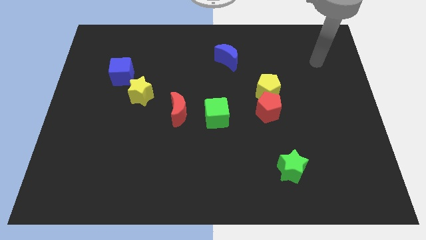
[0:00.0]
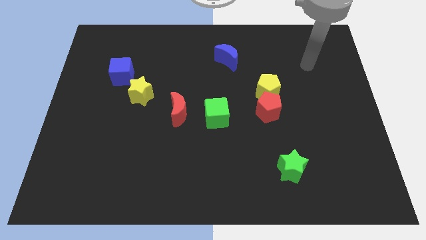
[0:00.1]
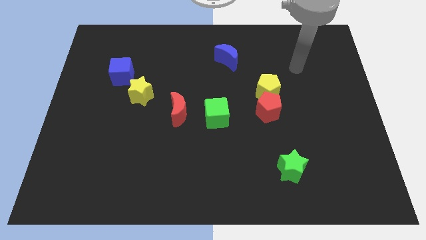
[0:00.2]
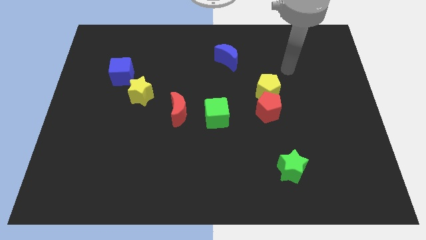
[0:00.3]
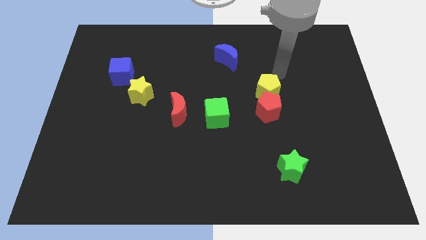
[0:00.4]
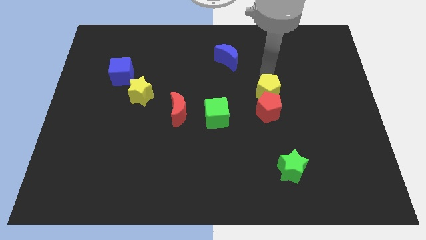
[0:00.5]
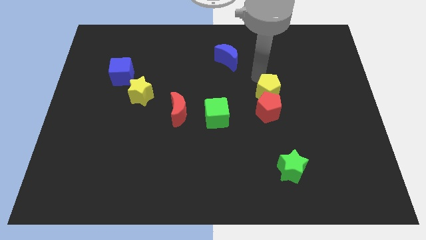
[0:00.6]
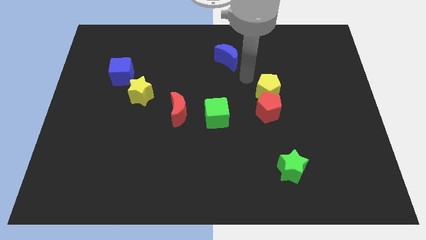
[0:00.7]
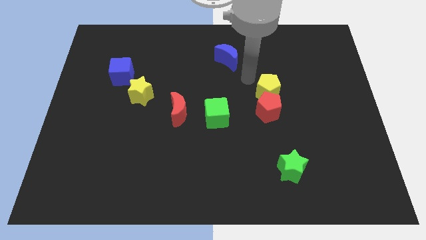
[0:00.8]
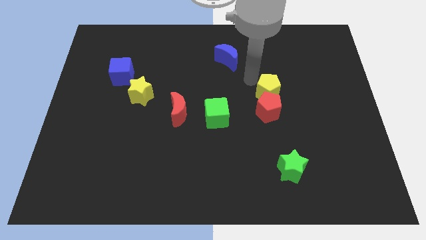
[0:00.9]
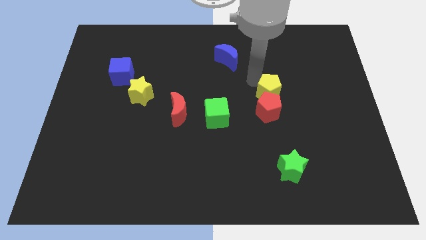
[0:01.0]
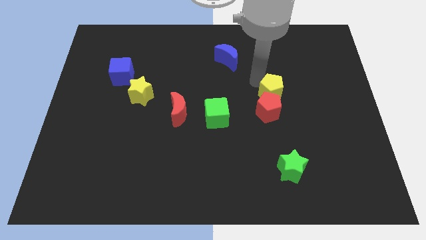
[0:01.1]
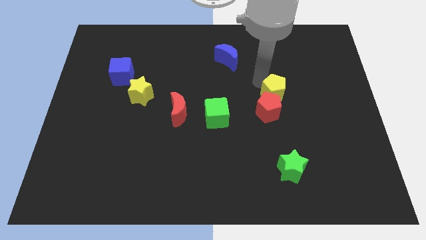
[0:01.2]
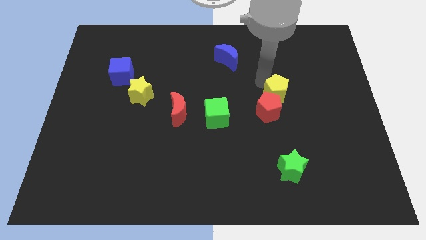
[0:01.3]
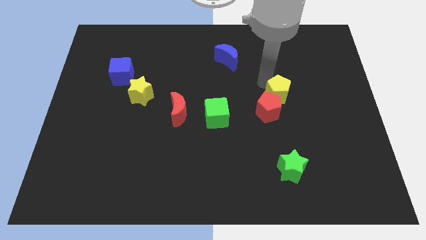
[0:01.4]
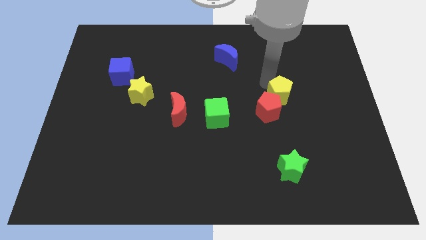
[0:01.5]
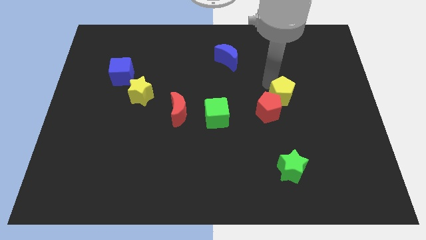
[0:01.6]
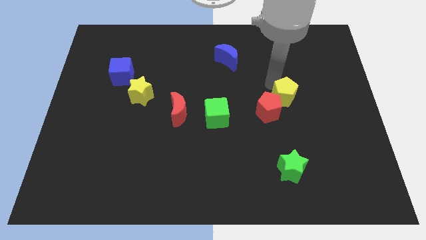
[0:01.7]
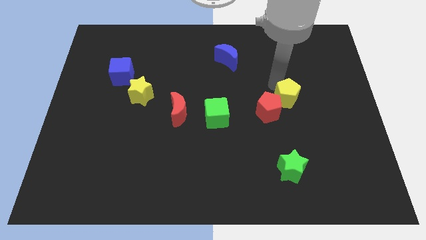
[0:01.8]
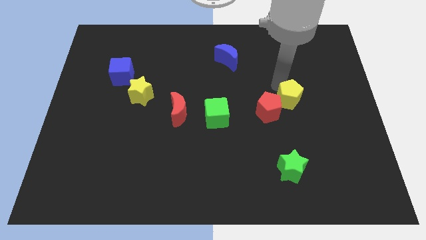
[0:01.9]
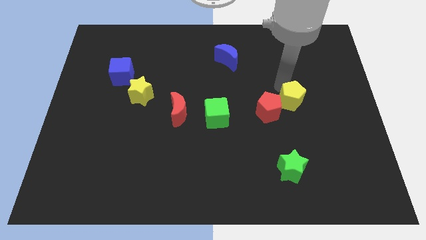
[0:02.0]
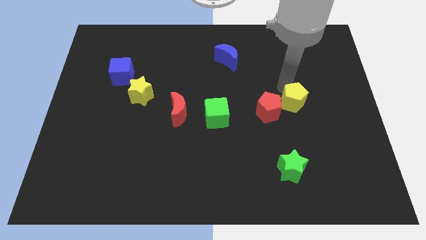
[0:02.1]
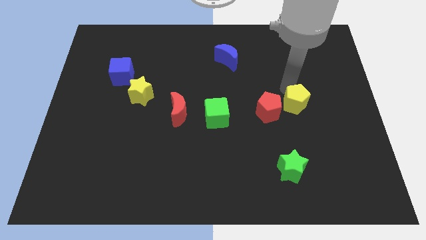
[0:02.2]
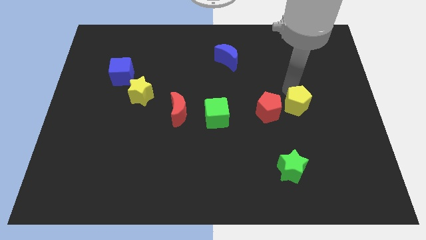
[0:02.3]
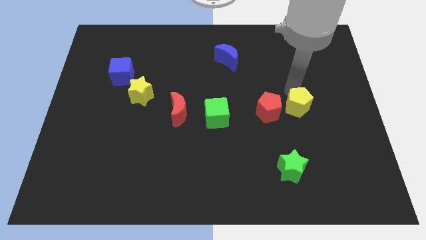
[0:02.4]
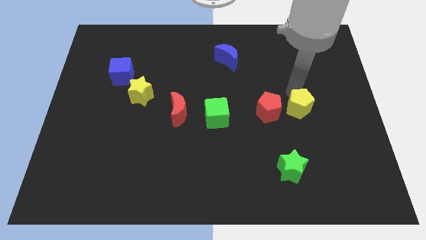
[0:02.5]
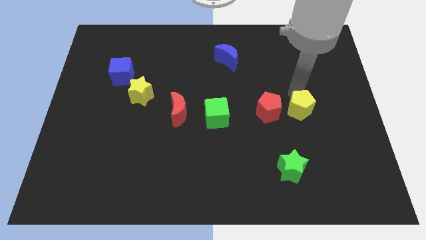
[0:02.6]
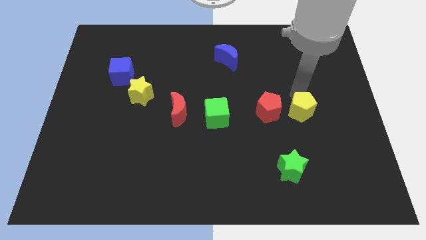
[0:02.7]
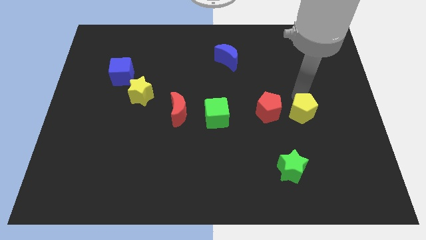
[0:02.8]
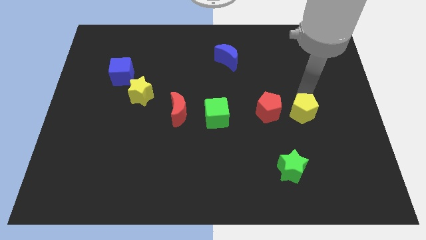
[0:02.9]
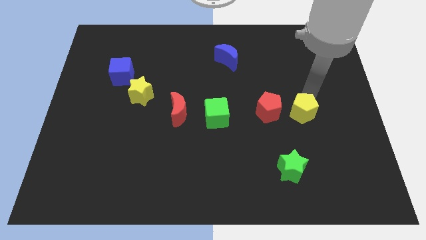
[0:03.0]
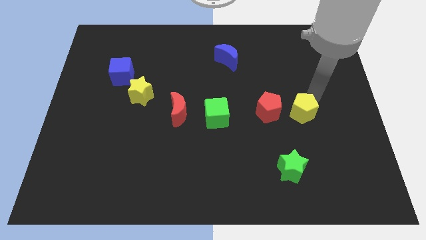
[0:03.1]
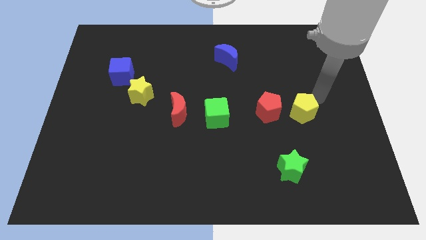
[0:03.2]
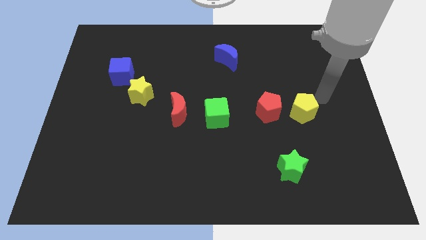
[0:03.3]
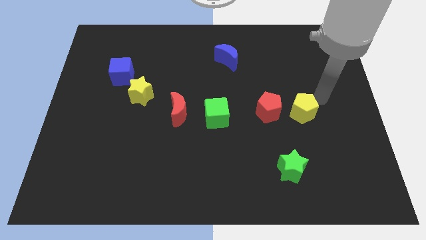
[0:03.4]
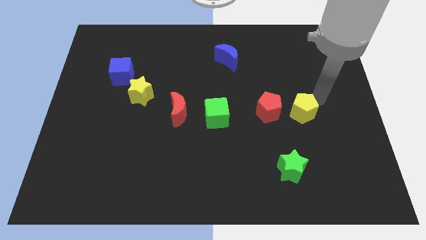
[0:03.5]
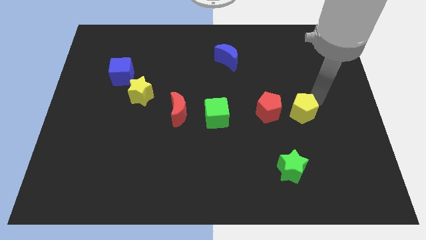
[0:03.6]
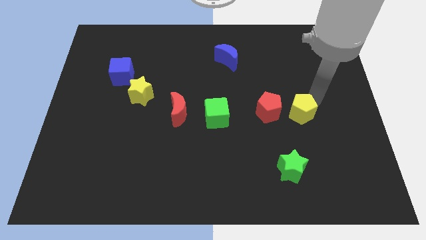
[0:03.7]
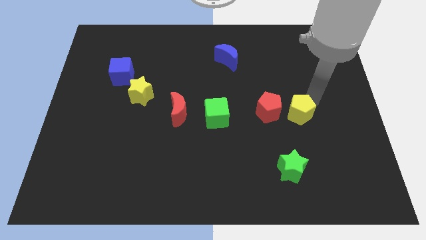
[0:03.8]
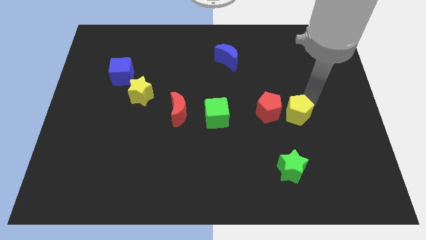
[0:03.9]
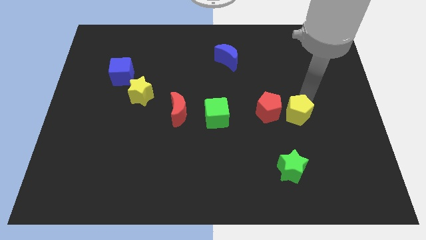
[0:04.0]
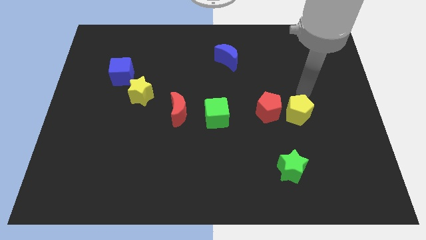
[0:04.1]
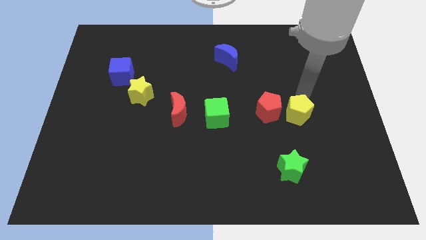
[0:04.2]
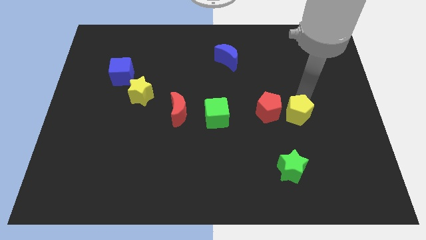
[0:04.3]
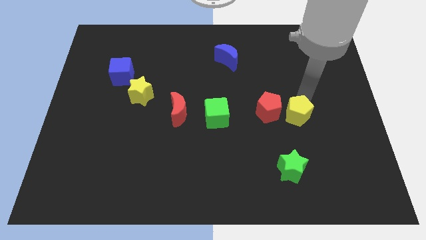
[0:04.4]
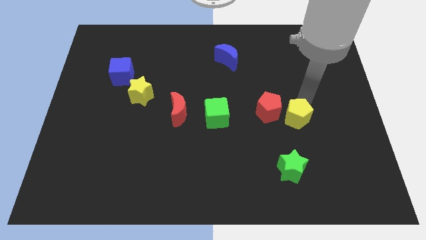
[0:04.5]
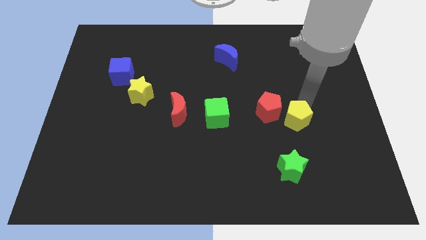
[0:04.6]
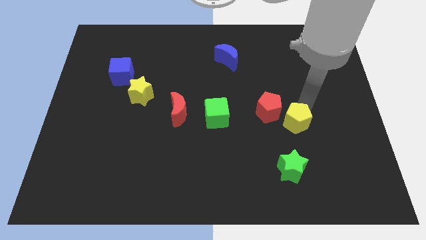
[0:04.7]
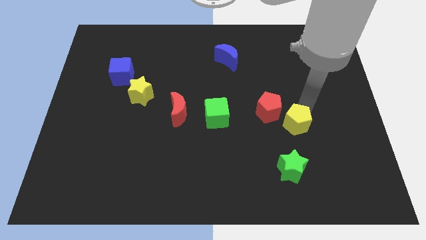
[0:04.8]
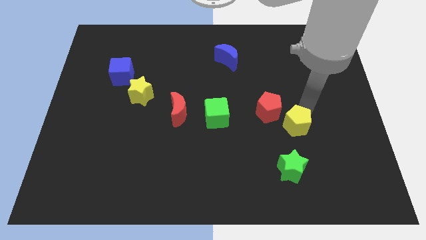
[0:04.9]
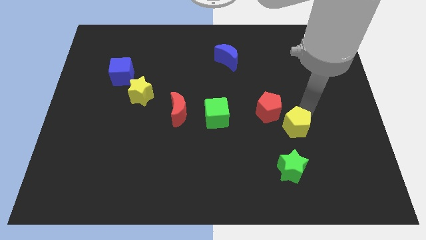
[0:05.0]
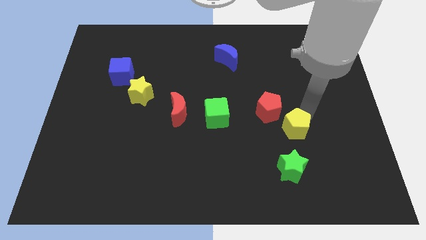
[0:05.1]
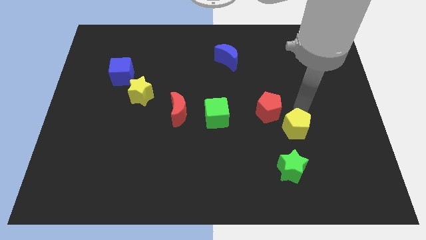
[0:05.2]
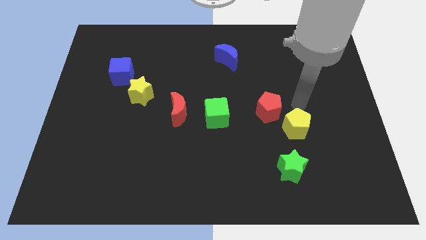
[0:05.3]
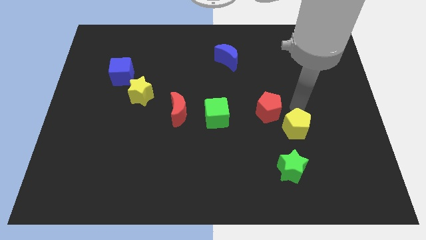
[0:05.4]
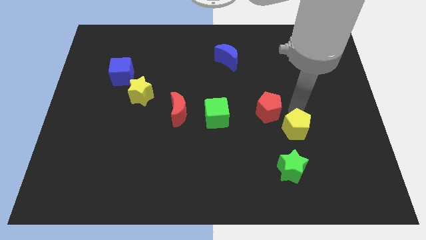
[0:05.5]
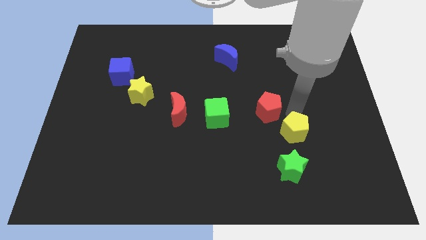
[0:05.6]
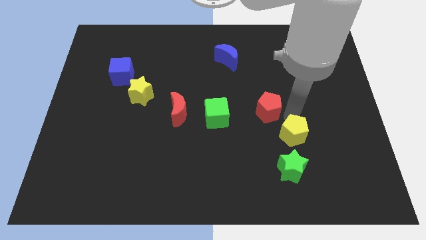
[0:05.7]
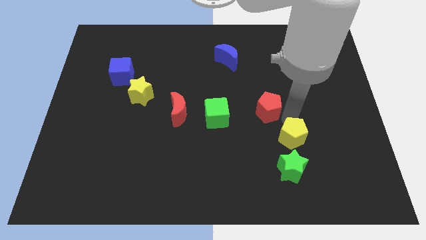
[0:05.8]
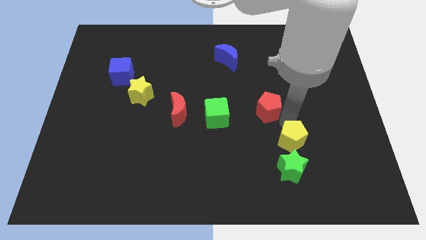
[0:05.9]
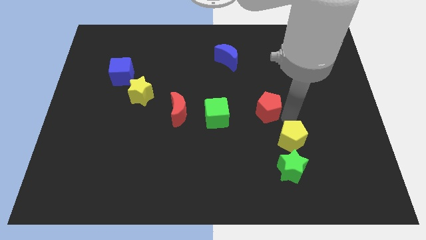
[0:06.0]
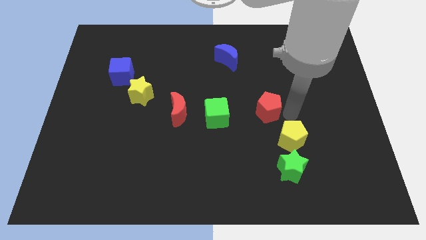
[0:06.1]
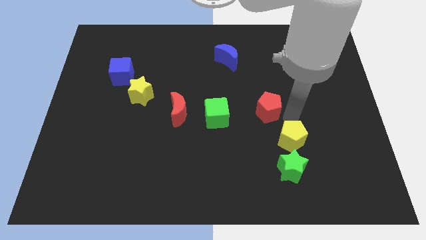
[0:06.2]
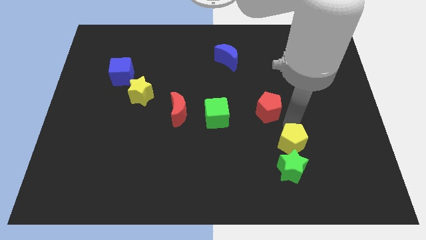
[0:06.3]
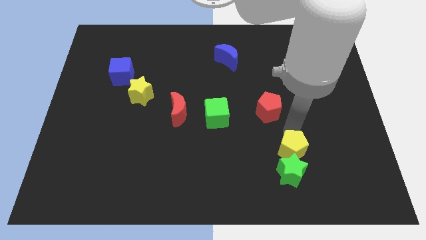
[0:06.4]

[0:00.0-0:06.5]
push the yellow pentagon close to the green star
